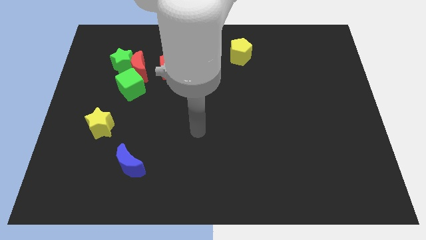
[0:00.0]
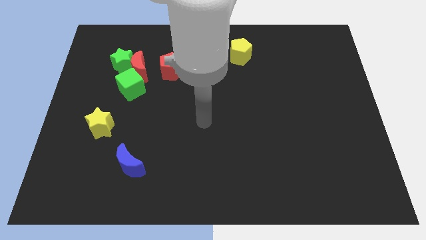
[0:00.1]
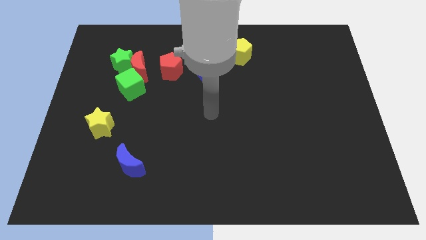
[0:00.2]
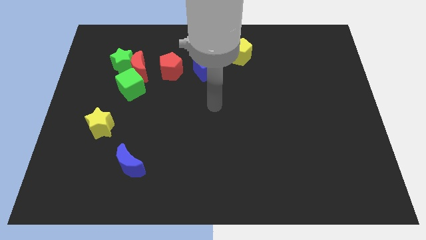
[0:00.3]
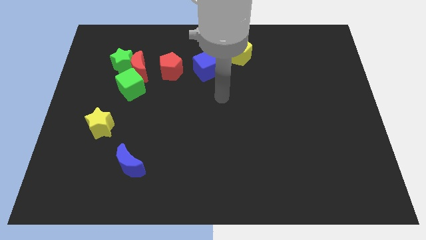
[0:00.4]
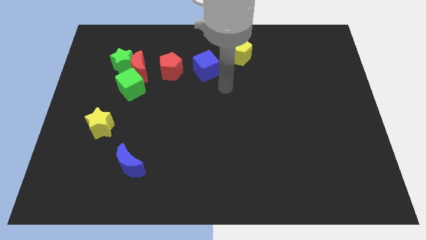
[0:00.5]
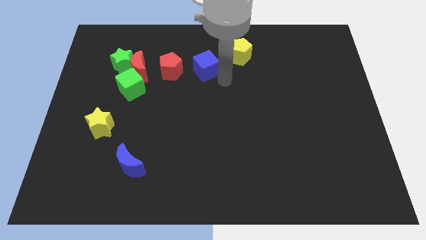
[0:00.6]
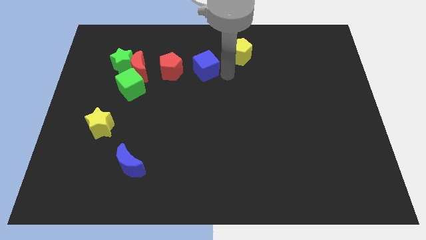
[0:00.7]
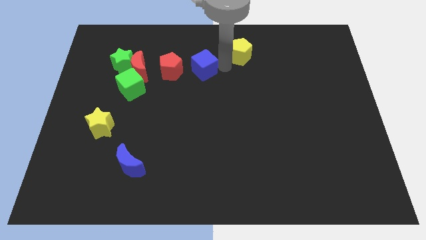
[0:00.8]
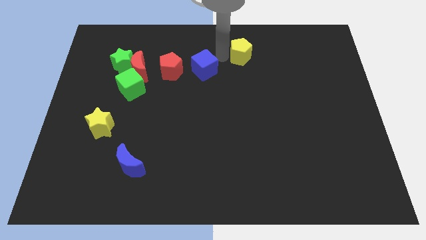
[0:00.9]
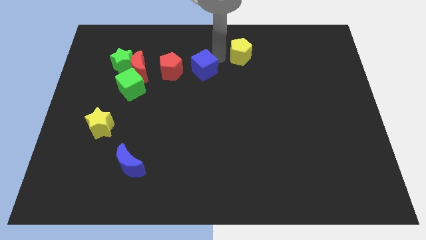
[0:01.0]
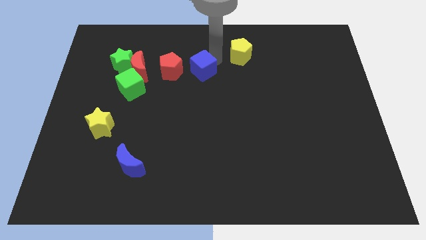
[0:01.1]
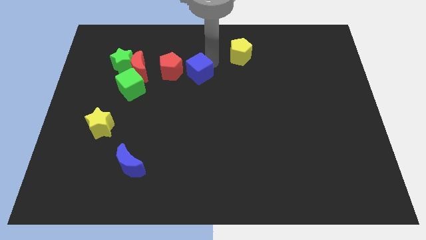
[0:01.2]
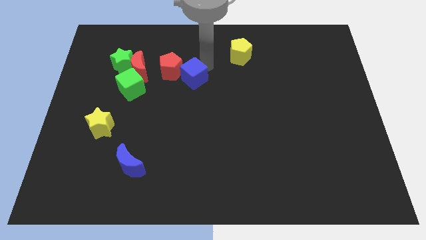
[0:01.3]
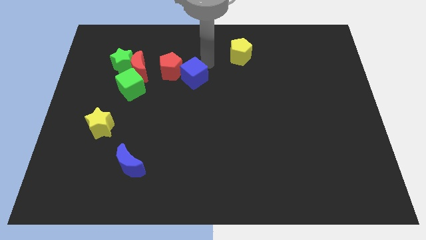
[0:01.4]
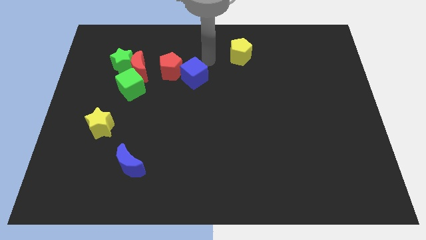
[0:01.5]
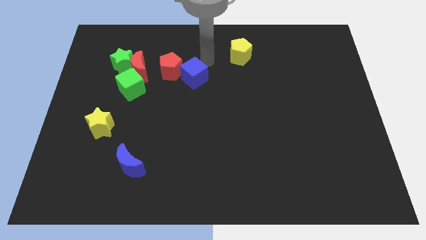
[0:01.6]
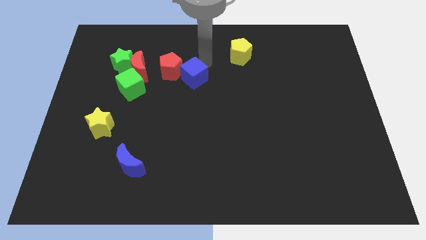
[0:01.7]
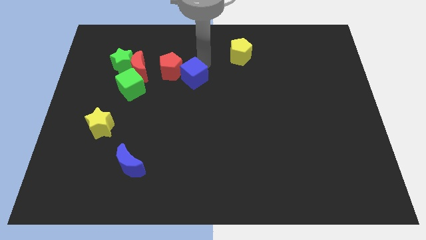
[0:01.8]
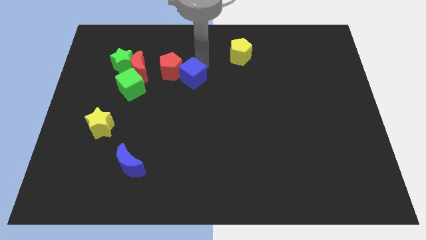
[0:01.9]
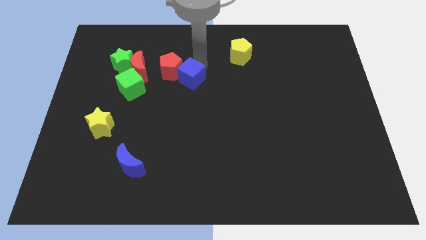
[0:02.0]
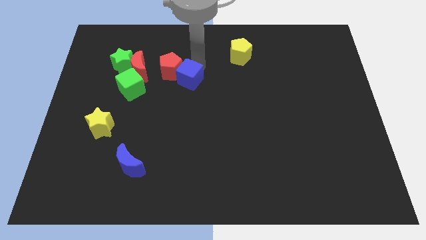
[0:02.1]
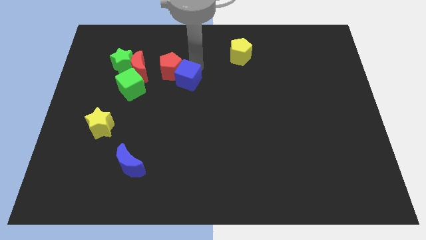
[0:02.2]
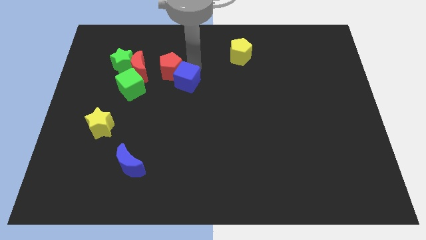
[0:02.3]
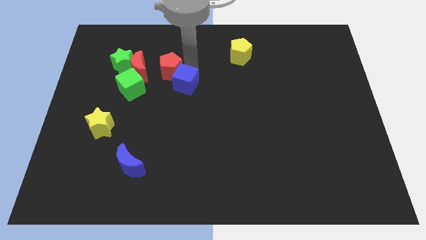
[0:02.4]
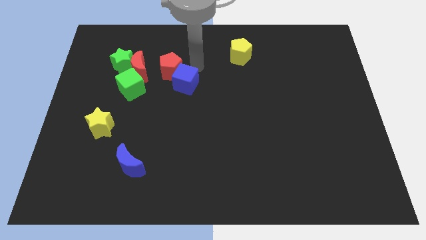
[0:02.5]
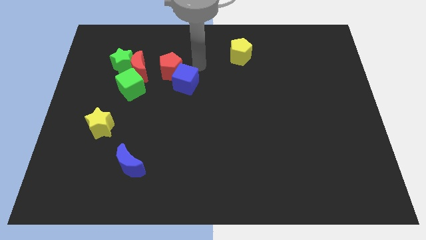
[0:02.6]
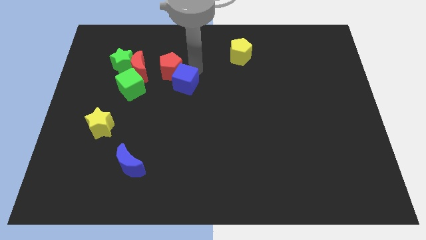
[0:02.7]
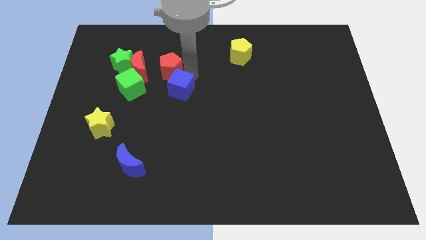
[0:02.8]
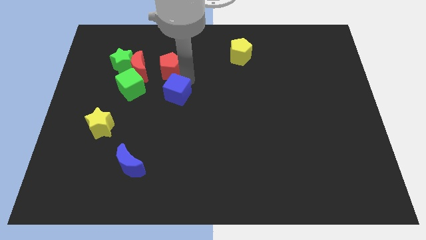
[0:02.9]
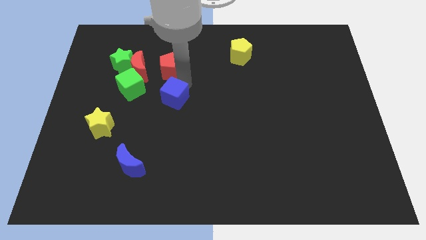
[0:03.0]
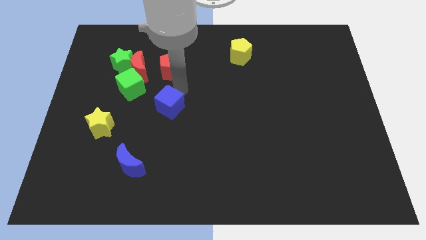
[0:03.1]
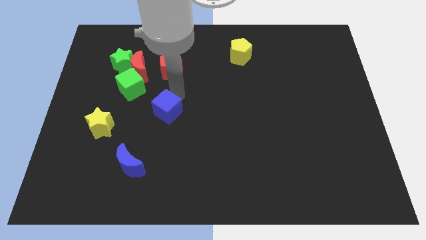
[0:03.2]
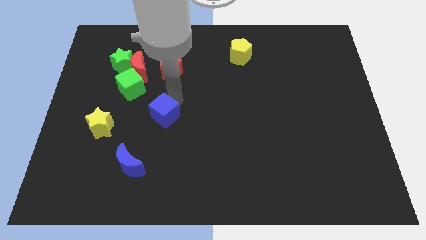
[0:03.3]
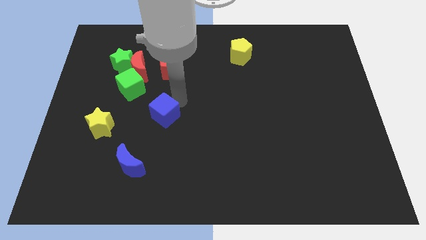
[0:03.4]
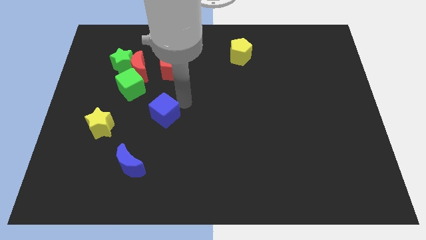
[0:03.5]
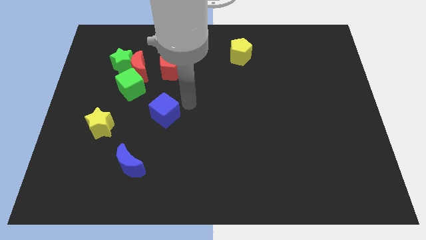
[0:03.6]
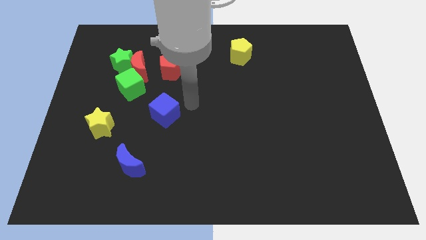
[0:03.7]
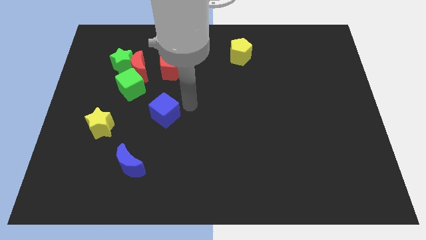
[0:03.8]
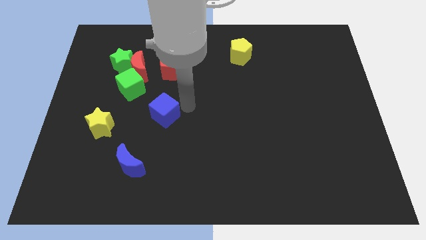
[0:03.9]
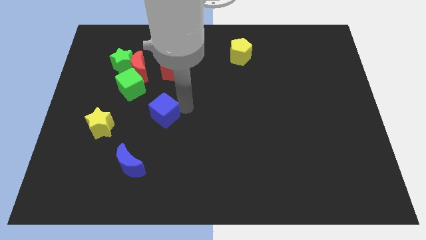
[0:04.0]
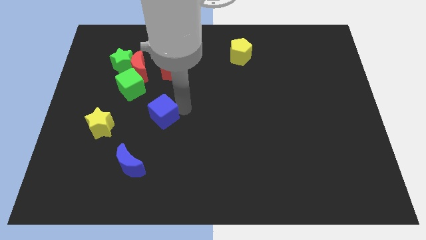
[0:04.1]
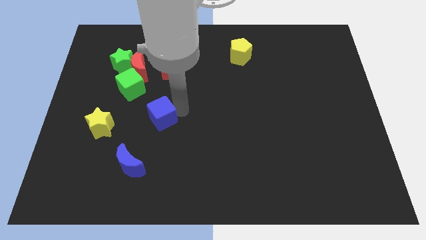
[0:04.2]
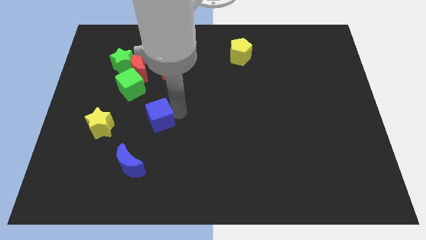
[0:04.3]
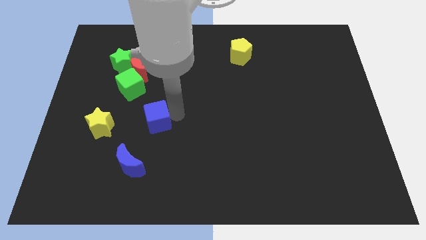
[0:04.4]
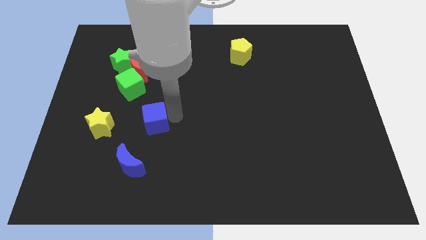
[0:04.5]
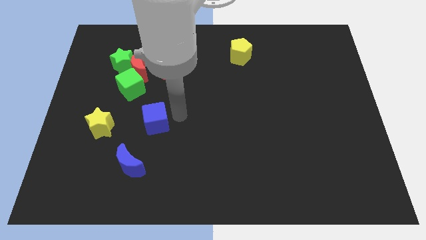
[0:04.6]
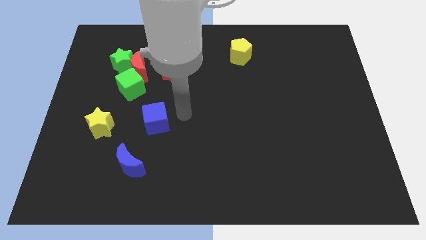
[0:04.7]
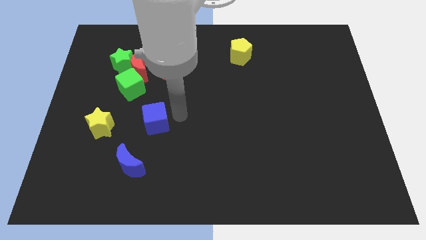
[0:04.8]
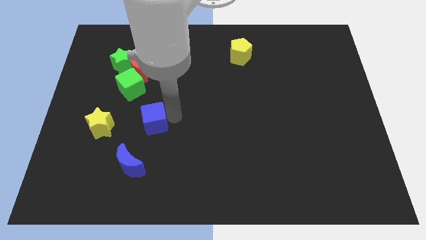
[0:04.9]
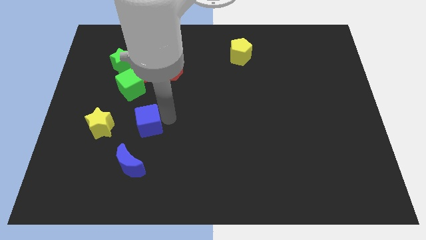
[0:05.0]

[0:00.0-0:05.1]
slide the blue cube down and to the left diagonally

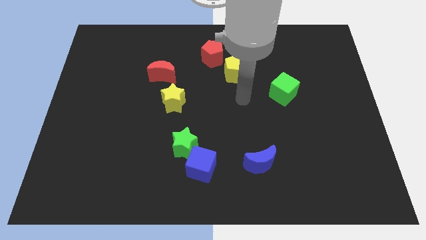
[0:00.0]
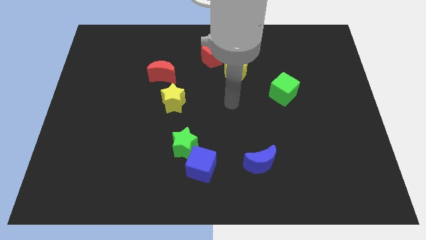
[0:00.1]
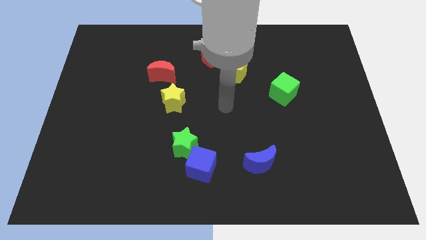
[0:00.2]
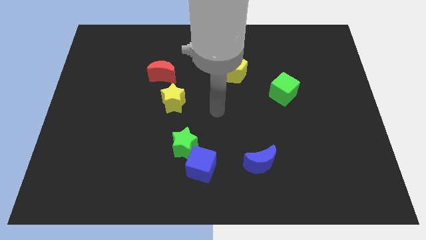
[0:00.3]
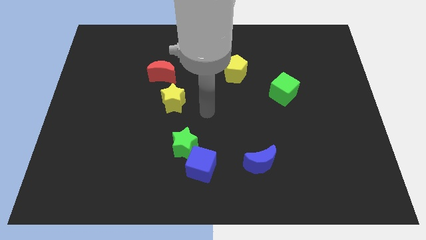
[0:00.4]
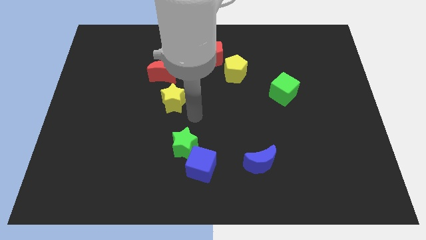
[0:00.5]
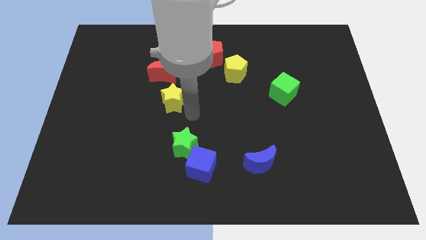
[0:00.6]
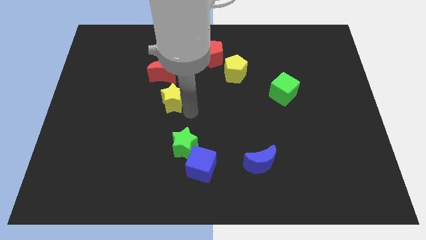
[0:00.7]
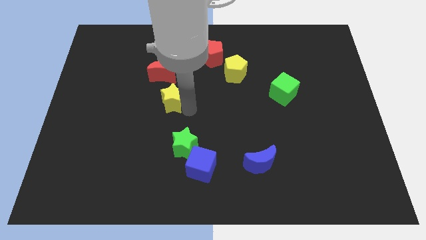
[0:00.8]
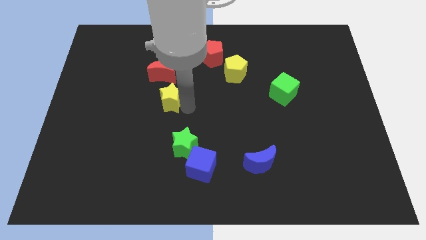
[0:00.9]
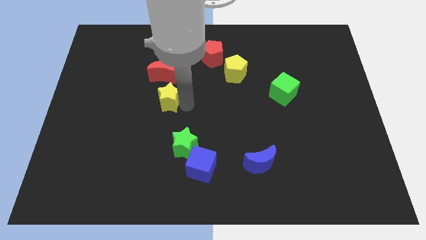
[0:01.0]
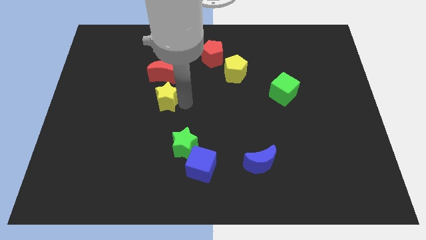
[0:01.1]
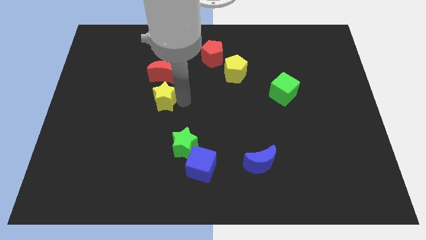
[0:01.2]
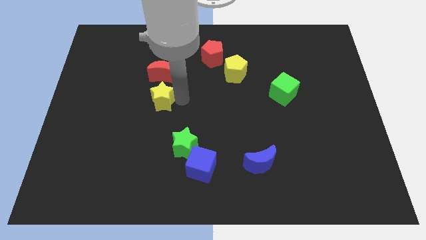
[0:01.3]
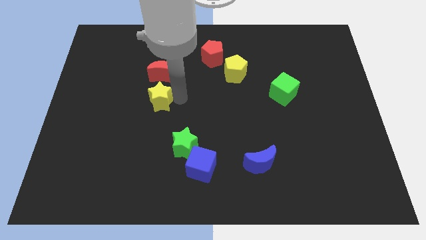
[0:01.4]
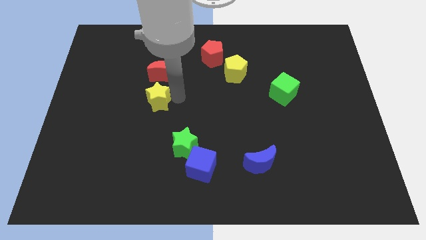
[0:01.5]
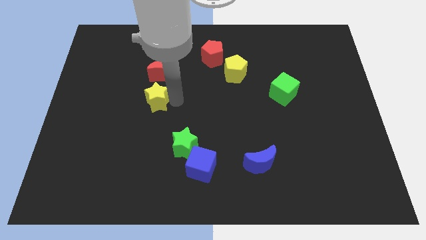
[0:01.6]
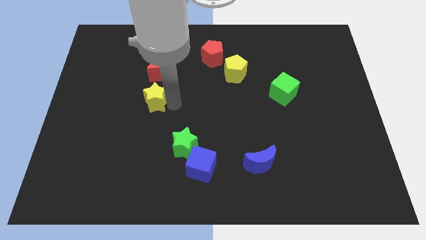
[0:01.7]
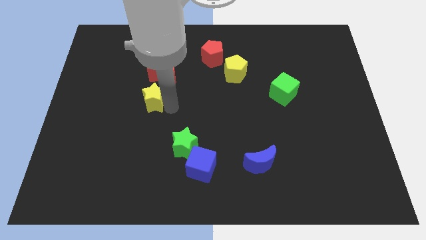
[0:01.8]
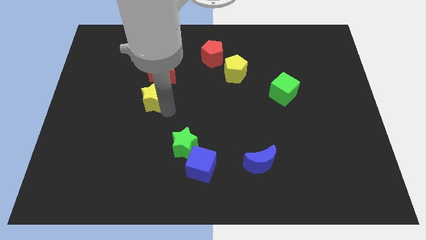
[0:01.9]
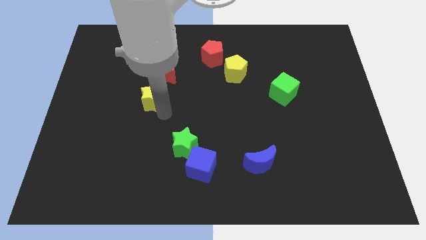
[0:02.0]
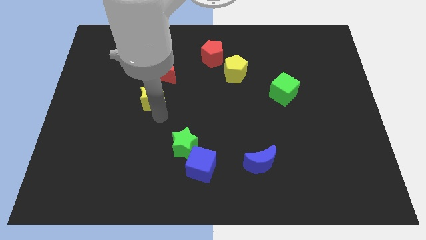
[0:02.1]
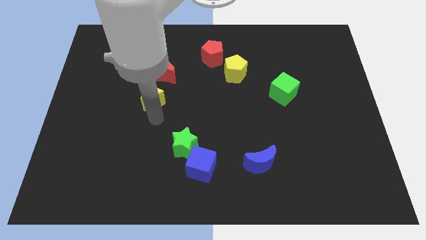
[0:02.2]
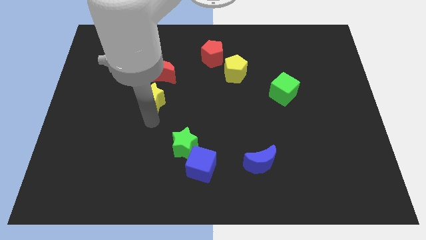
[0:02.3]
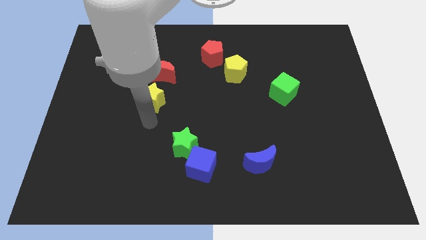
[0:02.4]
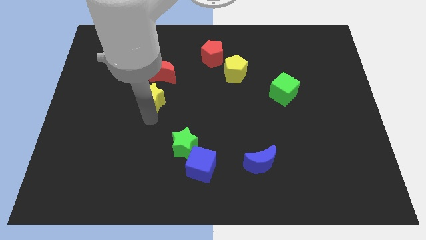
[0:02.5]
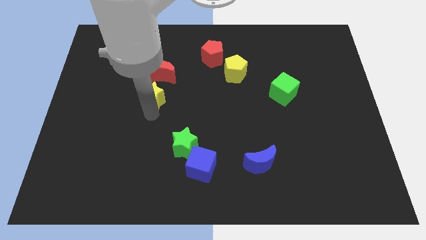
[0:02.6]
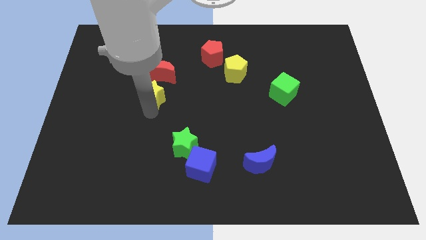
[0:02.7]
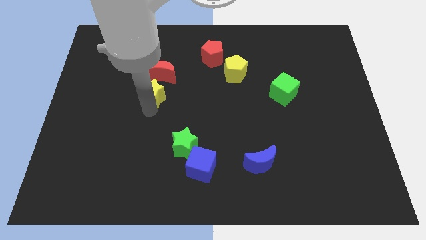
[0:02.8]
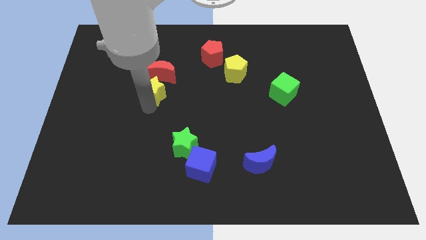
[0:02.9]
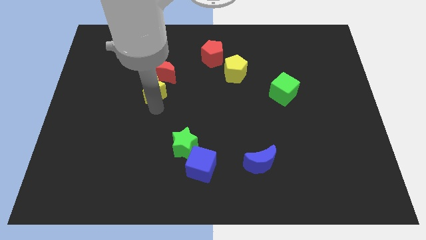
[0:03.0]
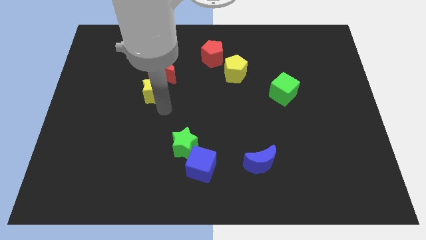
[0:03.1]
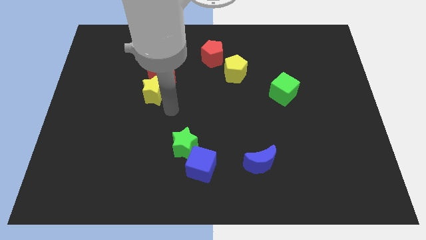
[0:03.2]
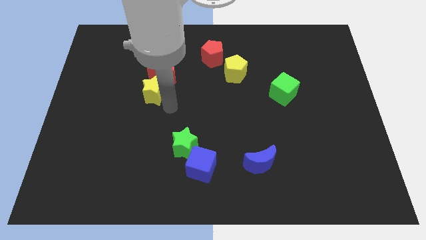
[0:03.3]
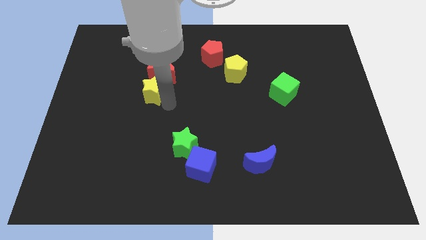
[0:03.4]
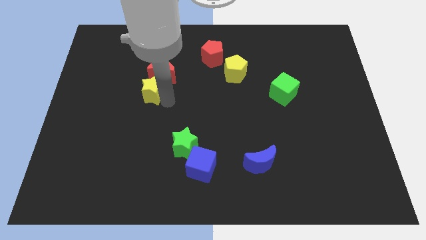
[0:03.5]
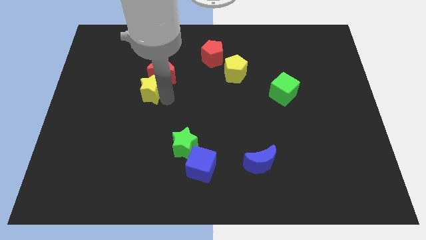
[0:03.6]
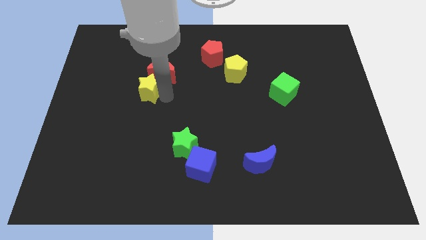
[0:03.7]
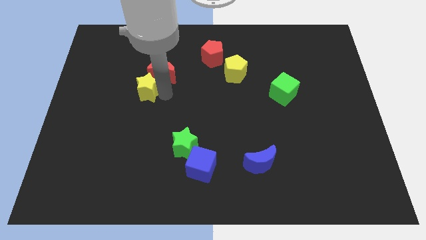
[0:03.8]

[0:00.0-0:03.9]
push the yellow star diagonally upwards and left a bit
